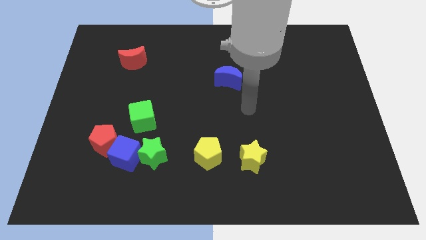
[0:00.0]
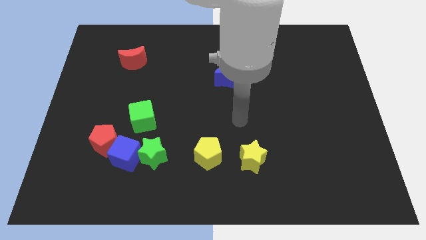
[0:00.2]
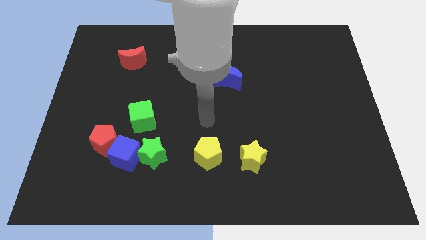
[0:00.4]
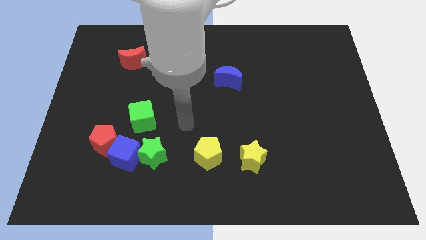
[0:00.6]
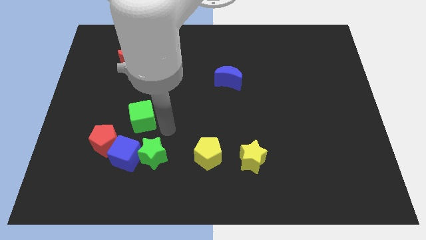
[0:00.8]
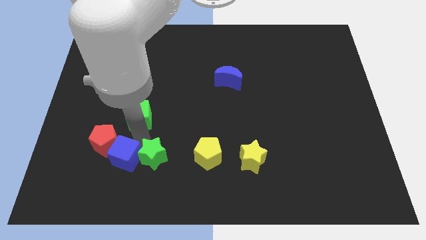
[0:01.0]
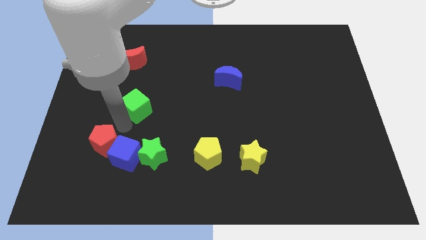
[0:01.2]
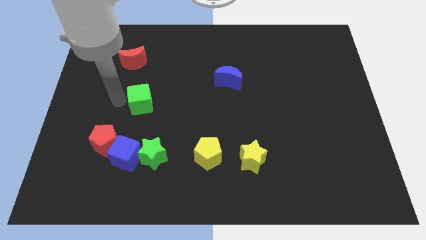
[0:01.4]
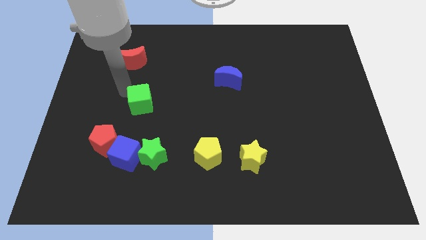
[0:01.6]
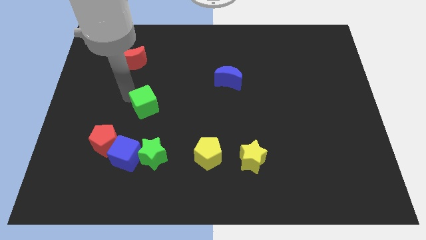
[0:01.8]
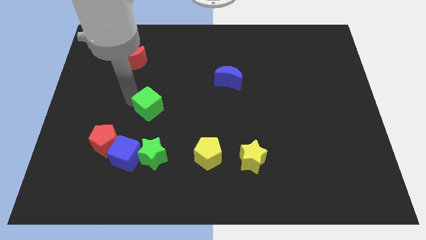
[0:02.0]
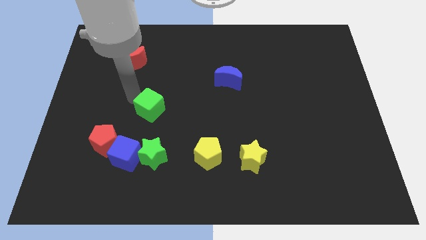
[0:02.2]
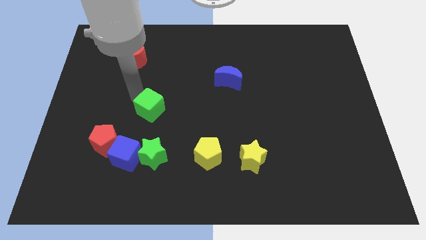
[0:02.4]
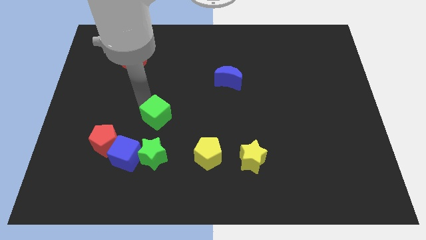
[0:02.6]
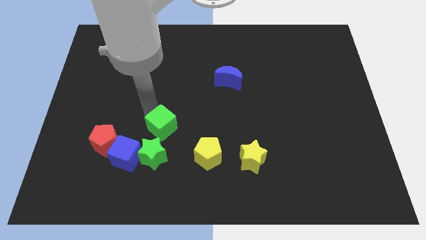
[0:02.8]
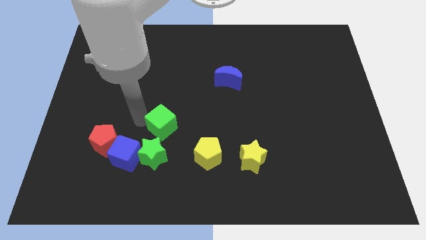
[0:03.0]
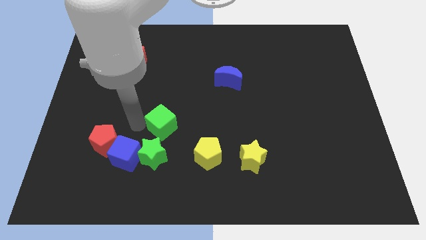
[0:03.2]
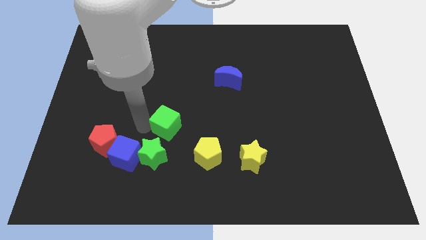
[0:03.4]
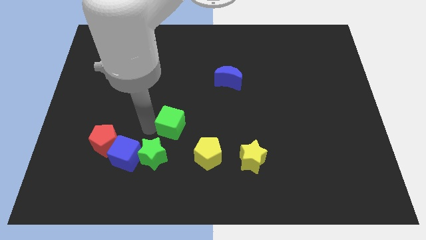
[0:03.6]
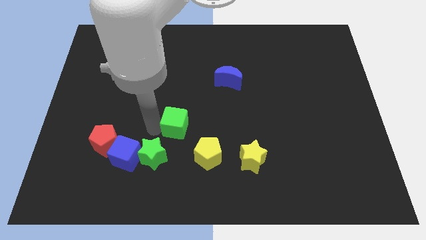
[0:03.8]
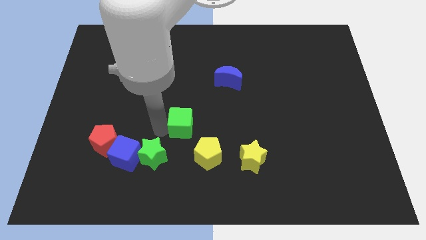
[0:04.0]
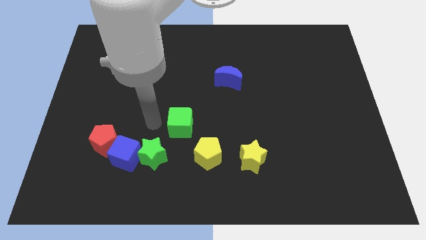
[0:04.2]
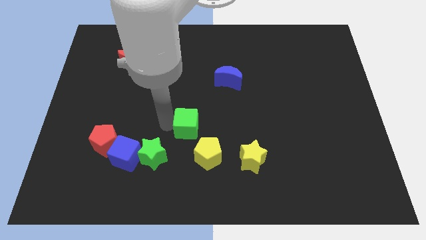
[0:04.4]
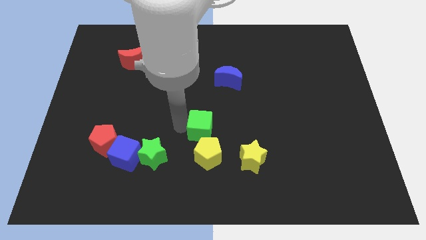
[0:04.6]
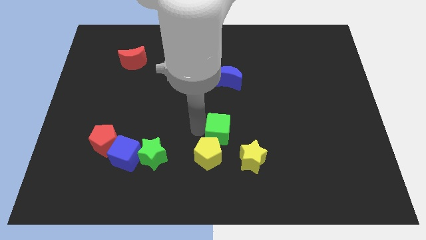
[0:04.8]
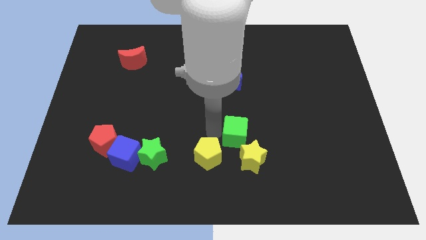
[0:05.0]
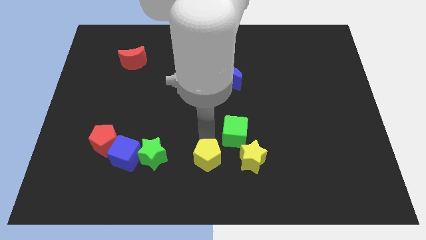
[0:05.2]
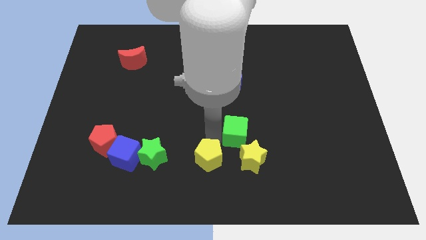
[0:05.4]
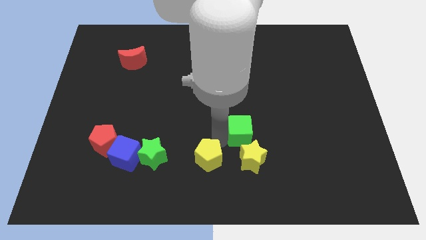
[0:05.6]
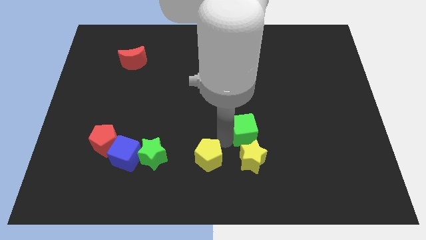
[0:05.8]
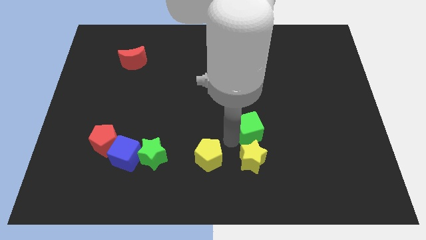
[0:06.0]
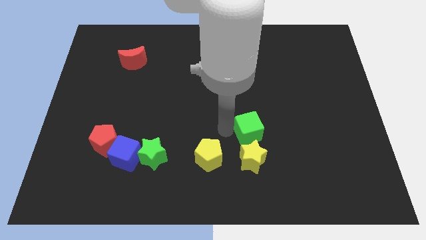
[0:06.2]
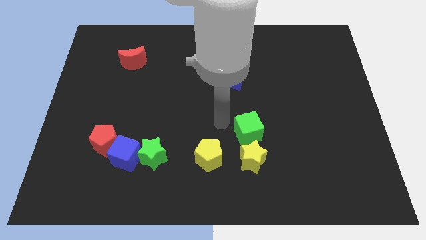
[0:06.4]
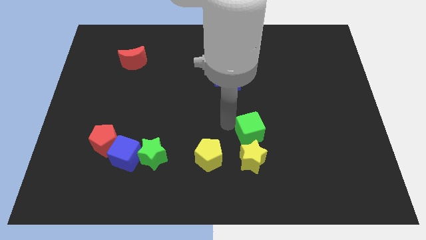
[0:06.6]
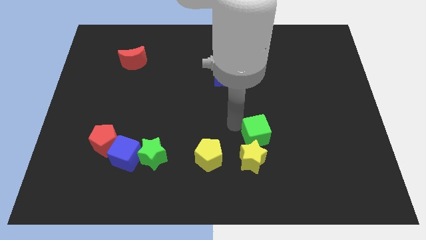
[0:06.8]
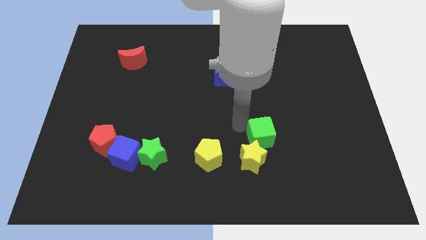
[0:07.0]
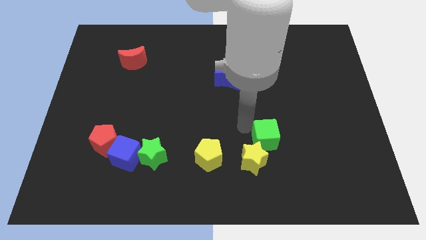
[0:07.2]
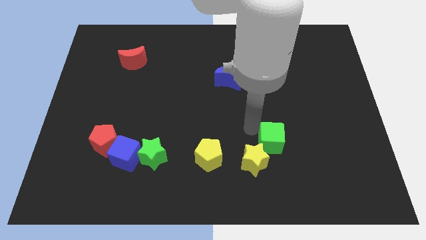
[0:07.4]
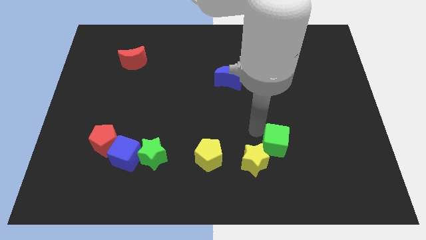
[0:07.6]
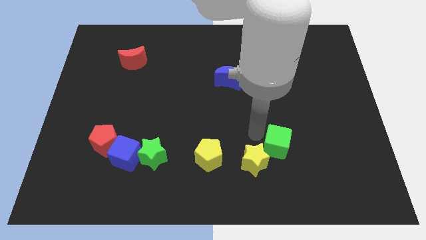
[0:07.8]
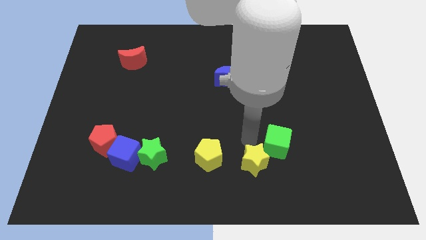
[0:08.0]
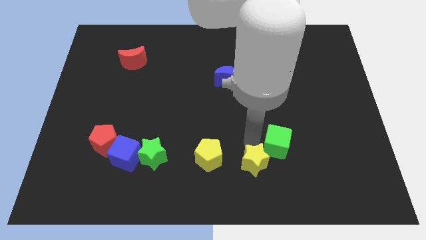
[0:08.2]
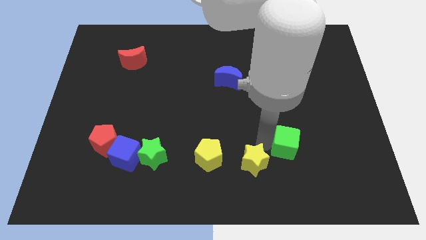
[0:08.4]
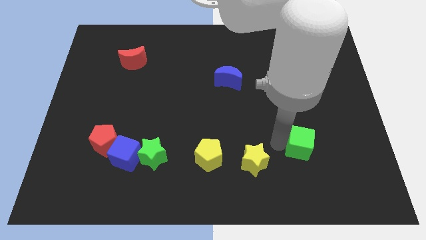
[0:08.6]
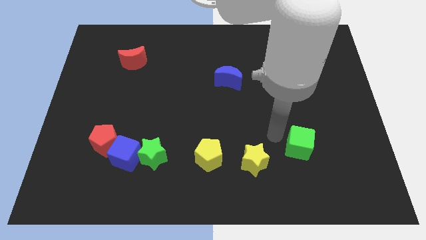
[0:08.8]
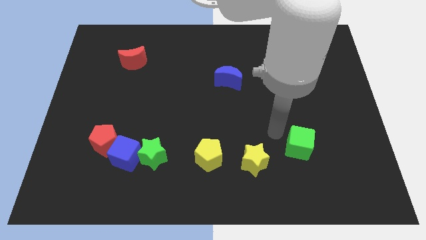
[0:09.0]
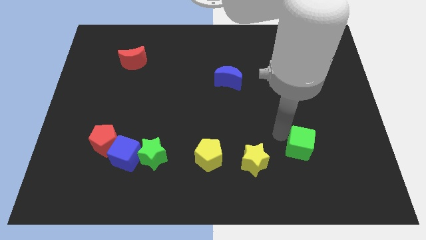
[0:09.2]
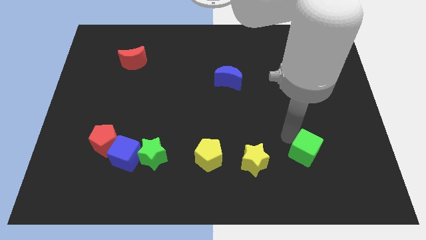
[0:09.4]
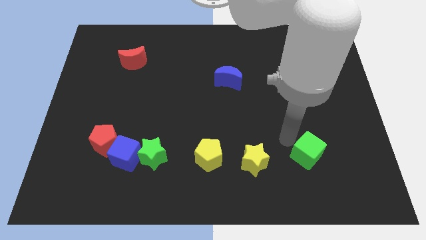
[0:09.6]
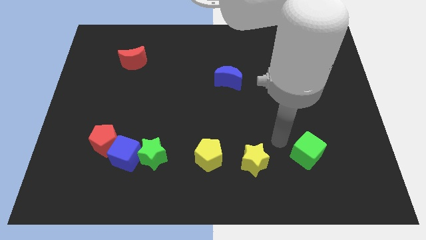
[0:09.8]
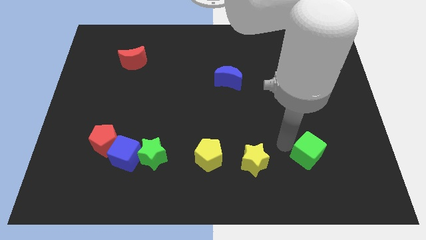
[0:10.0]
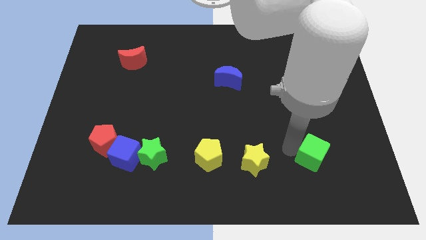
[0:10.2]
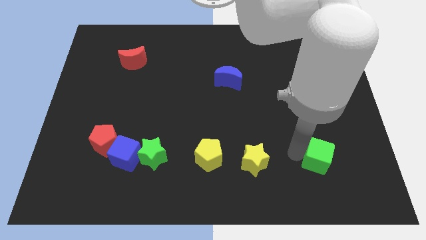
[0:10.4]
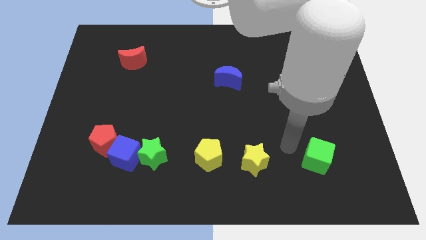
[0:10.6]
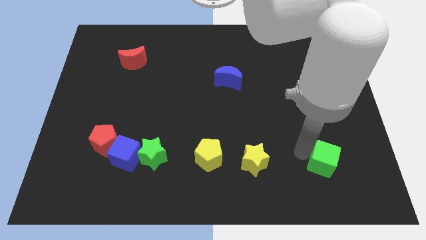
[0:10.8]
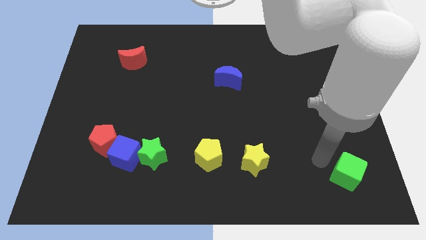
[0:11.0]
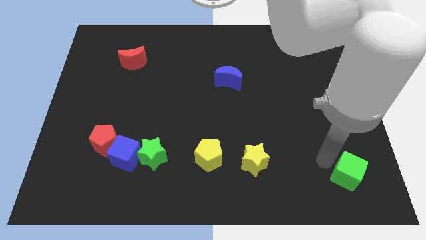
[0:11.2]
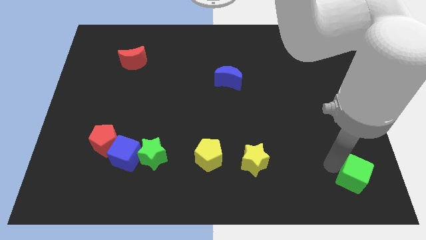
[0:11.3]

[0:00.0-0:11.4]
push the green cube to the bottom right corner

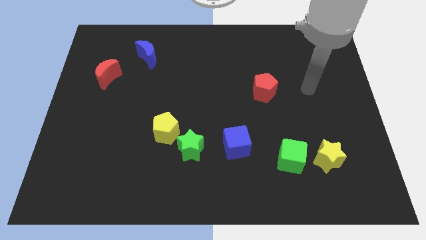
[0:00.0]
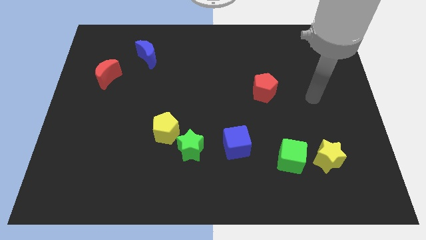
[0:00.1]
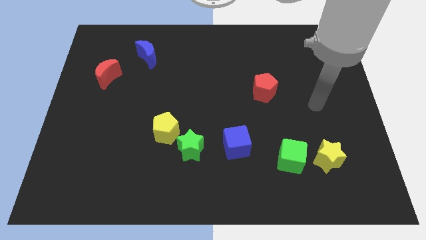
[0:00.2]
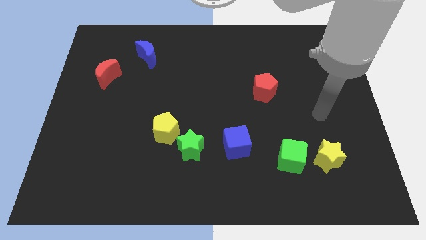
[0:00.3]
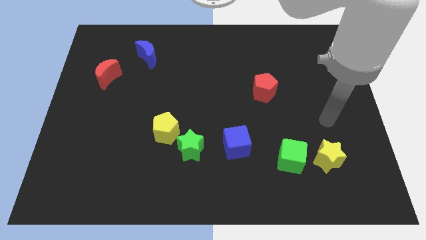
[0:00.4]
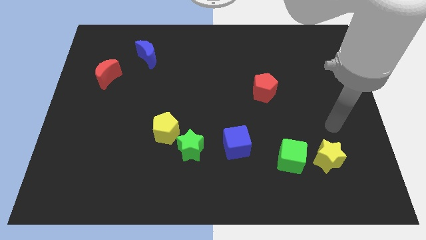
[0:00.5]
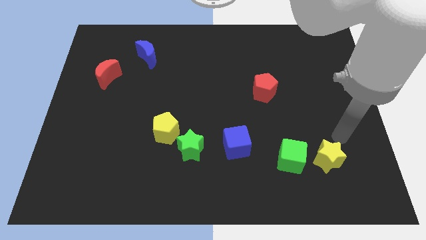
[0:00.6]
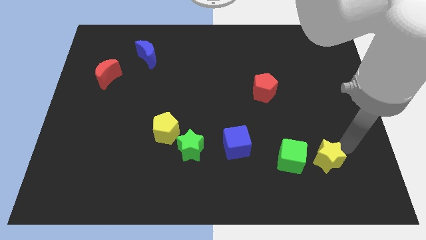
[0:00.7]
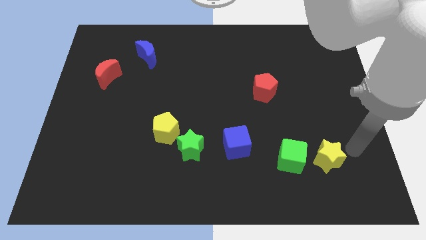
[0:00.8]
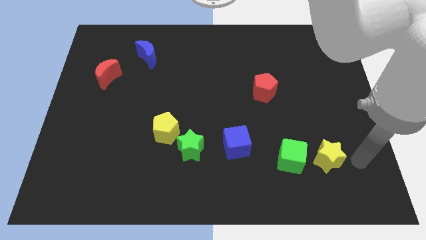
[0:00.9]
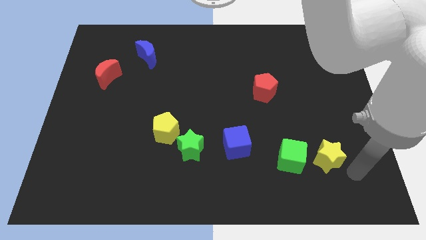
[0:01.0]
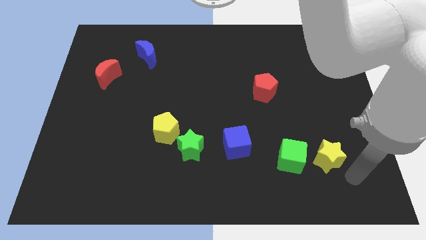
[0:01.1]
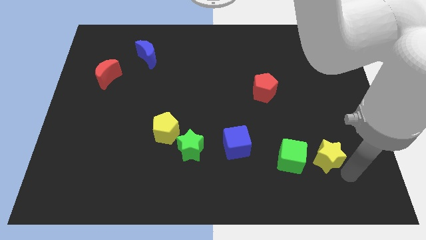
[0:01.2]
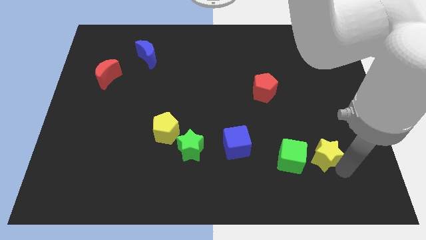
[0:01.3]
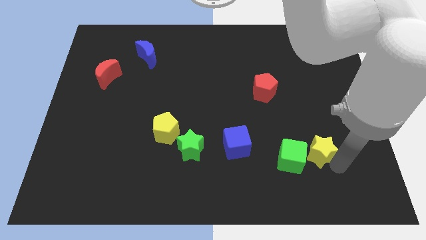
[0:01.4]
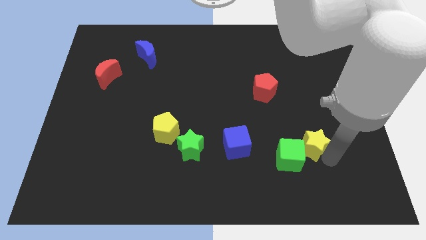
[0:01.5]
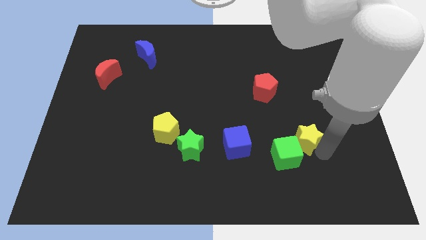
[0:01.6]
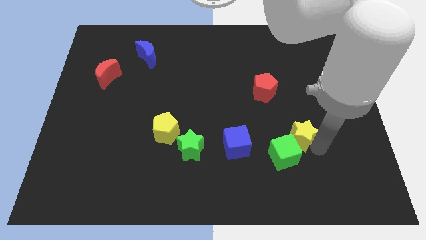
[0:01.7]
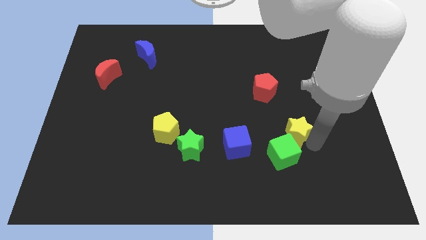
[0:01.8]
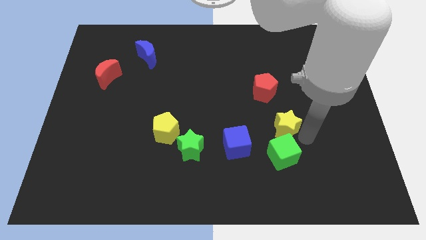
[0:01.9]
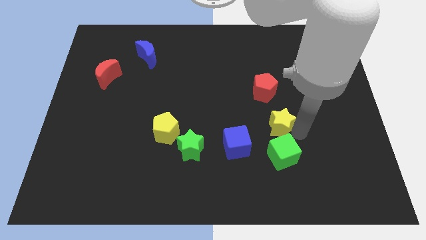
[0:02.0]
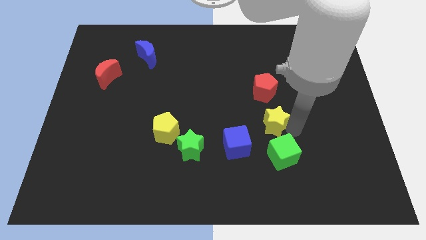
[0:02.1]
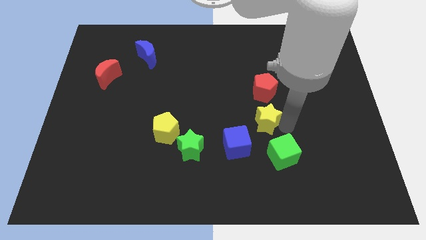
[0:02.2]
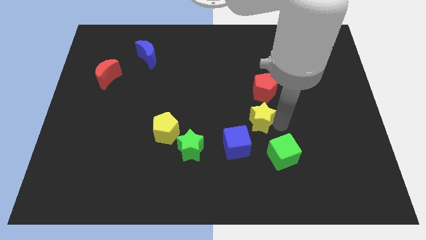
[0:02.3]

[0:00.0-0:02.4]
put the yellow star to the middle
